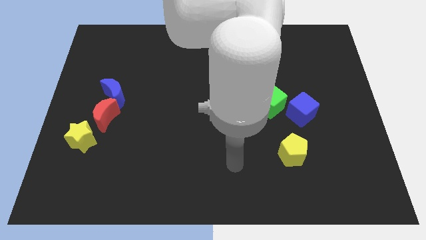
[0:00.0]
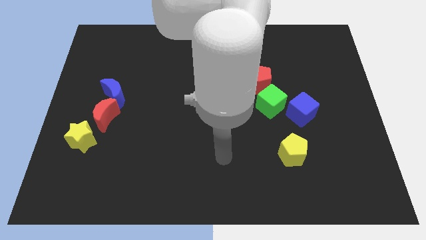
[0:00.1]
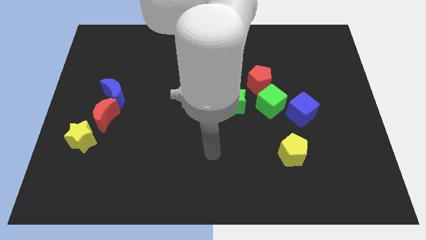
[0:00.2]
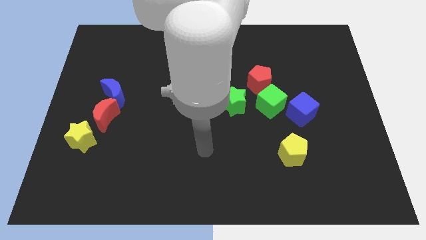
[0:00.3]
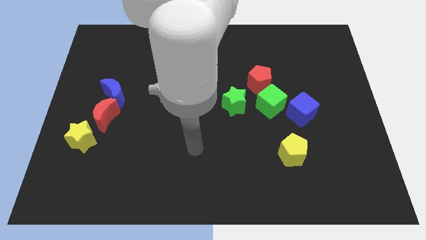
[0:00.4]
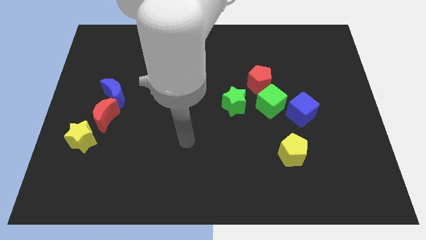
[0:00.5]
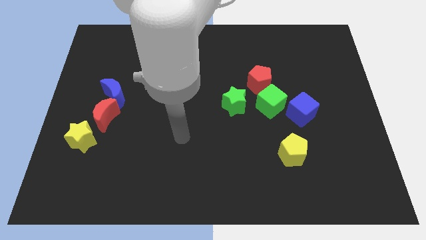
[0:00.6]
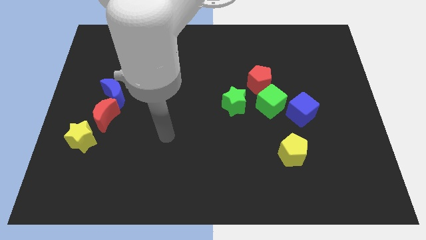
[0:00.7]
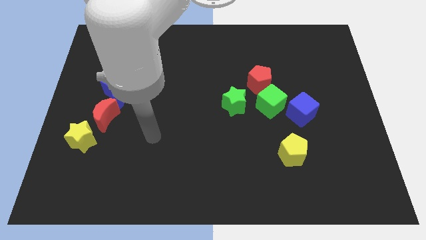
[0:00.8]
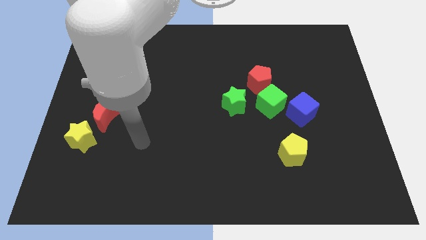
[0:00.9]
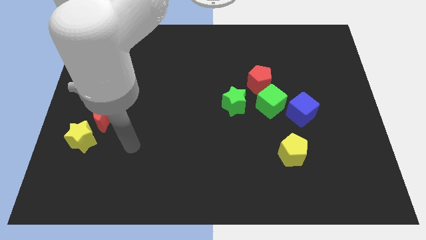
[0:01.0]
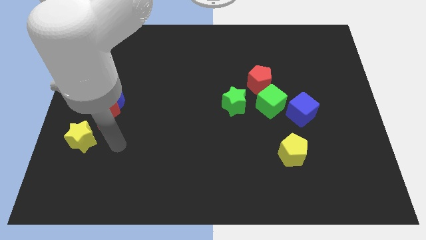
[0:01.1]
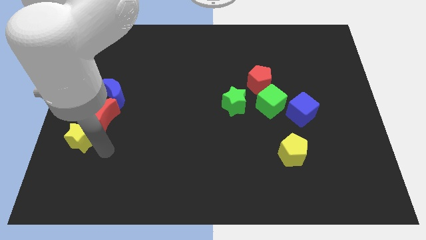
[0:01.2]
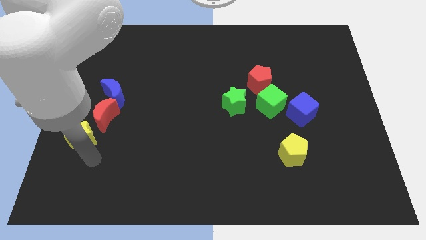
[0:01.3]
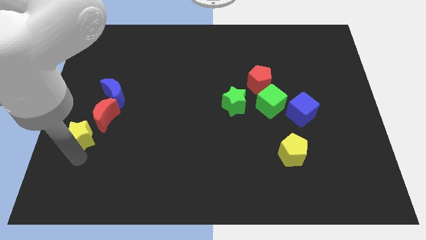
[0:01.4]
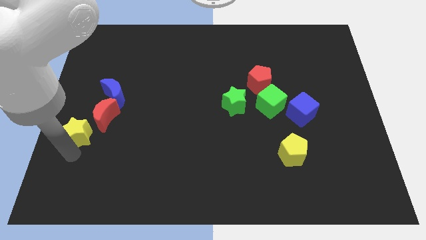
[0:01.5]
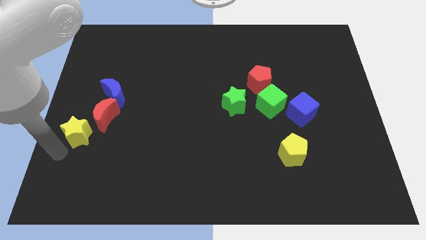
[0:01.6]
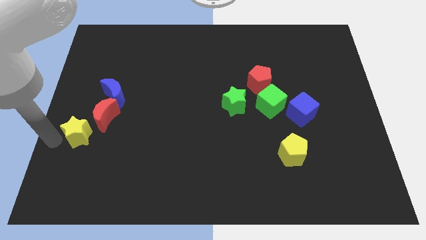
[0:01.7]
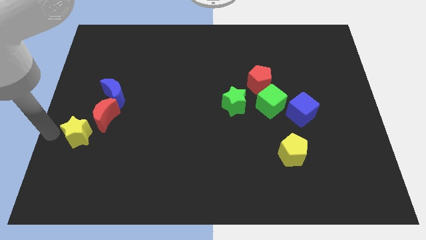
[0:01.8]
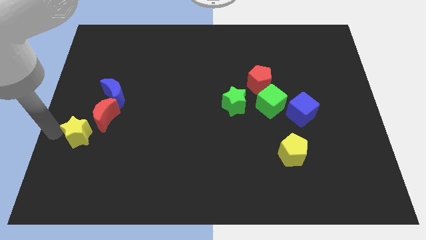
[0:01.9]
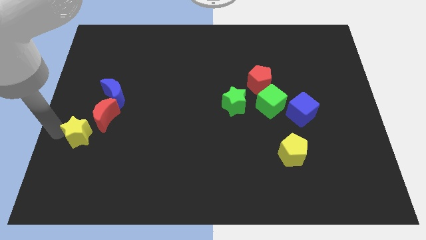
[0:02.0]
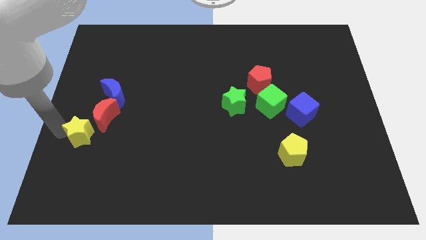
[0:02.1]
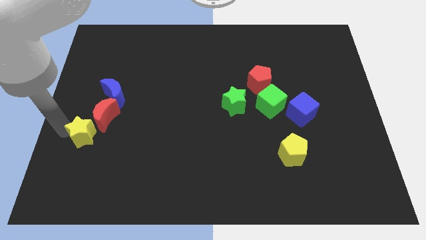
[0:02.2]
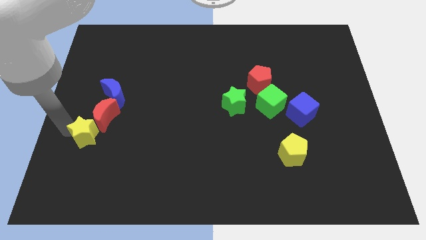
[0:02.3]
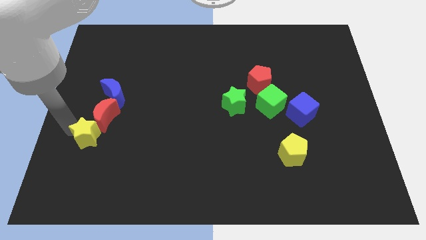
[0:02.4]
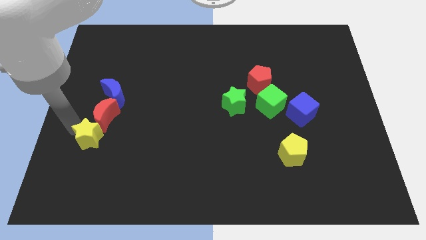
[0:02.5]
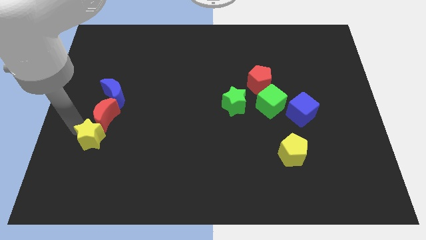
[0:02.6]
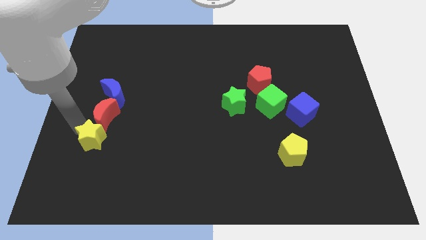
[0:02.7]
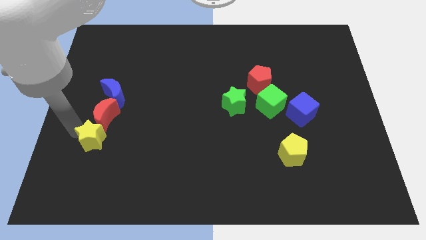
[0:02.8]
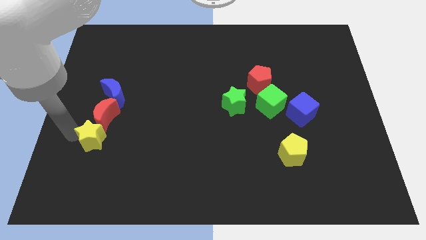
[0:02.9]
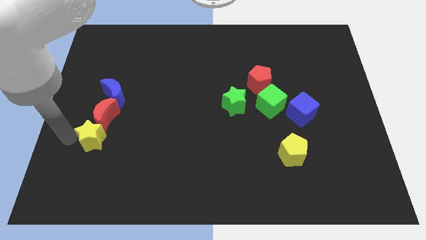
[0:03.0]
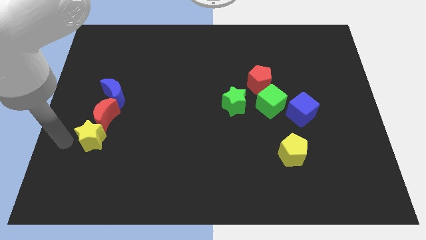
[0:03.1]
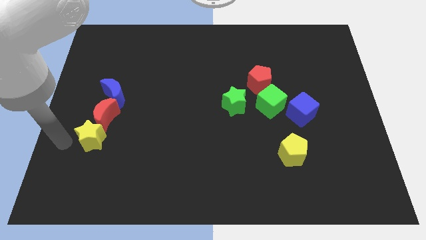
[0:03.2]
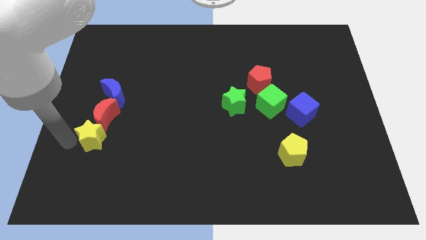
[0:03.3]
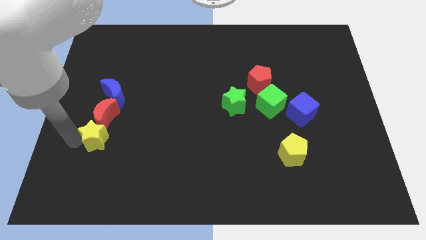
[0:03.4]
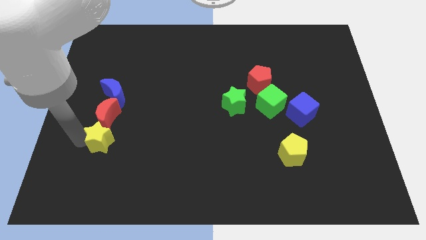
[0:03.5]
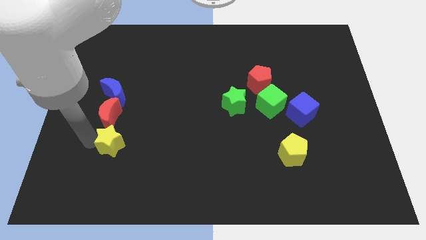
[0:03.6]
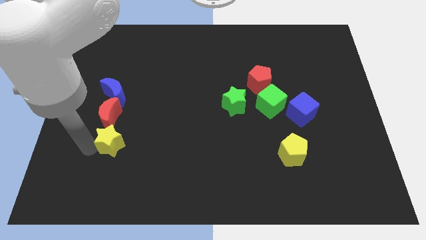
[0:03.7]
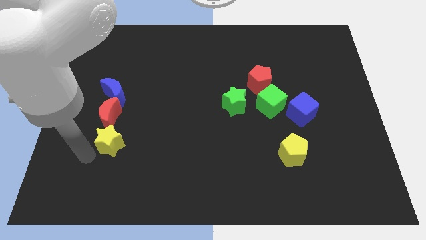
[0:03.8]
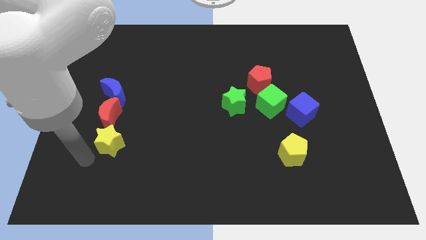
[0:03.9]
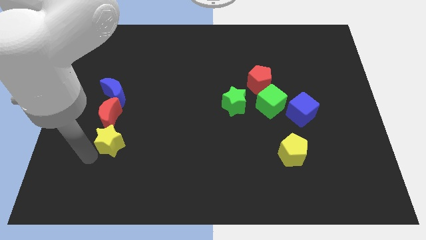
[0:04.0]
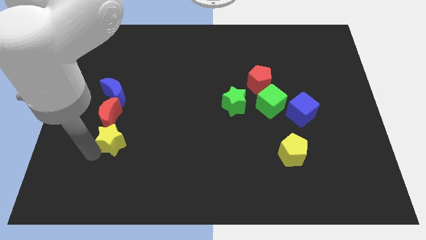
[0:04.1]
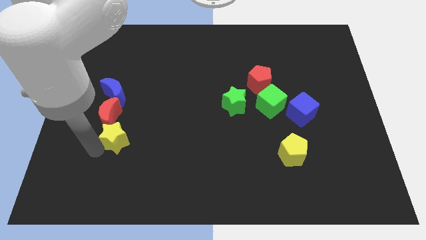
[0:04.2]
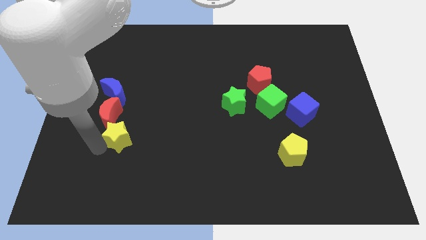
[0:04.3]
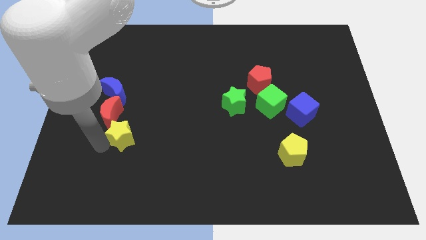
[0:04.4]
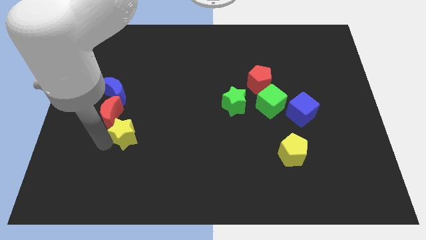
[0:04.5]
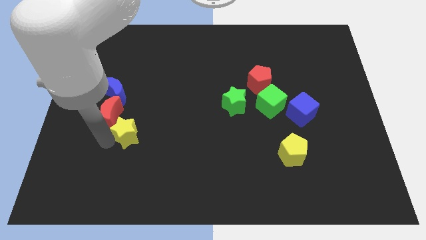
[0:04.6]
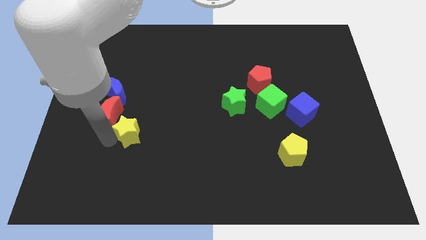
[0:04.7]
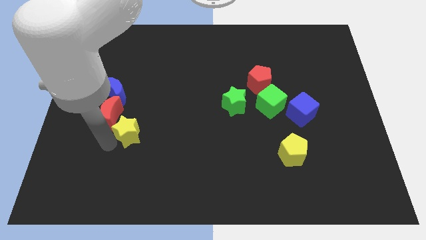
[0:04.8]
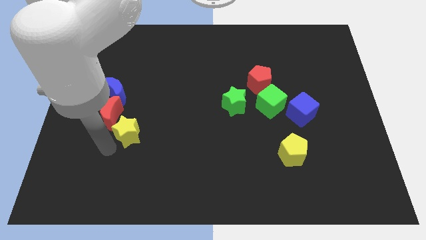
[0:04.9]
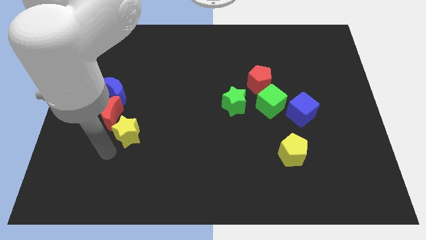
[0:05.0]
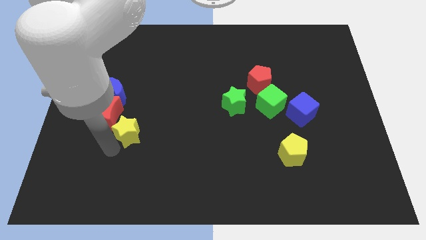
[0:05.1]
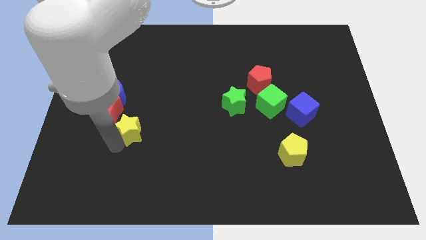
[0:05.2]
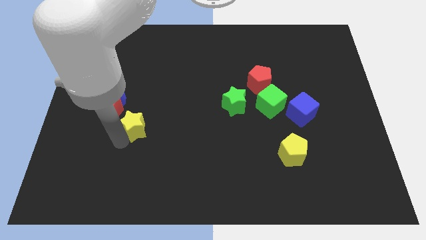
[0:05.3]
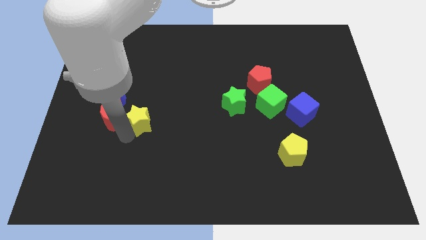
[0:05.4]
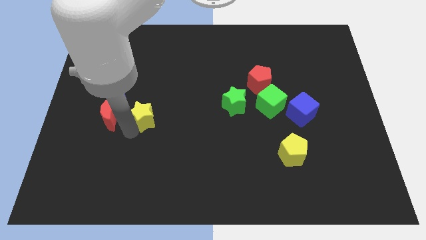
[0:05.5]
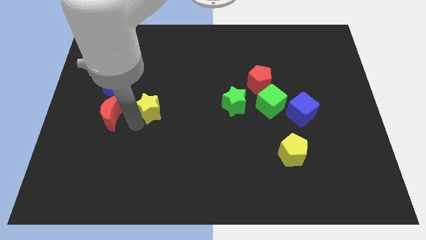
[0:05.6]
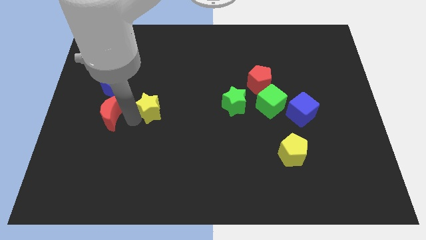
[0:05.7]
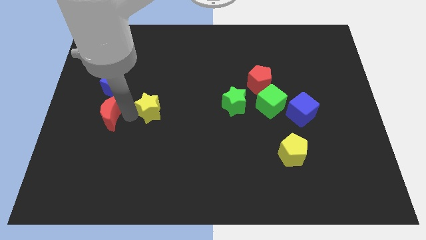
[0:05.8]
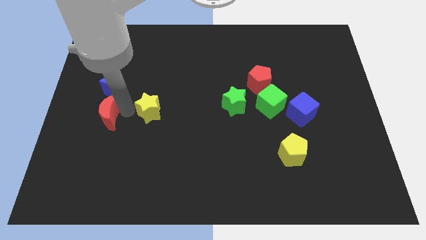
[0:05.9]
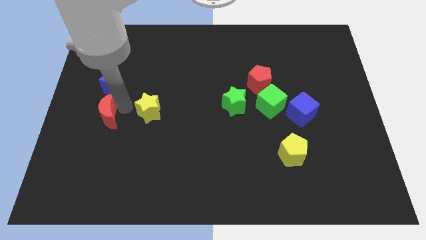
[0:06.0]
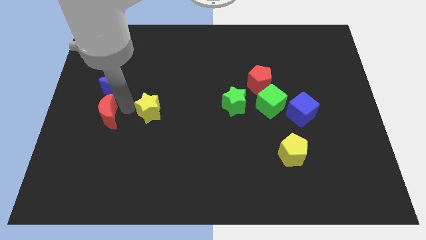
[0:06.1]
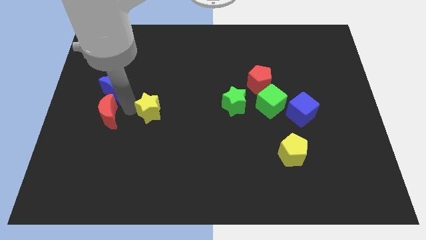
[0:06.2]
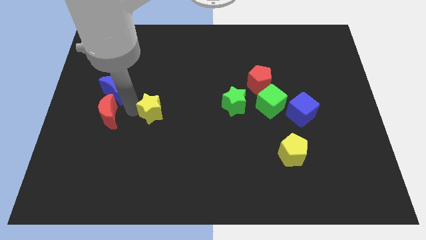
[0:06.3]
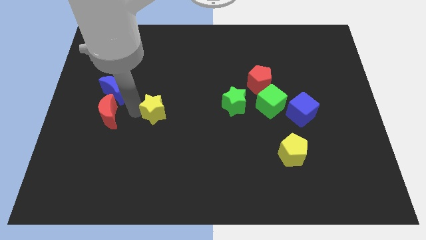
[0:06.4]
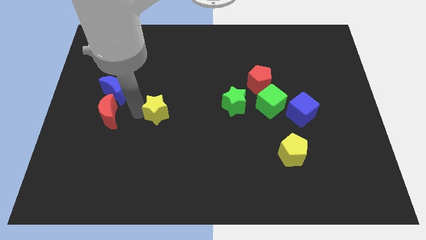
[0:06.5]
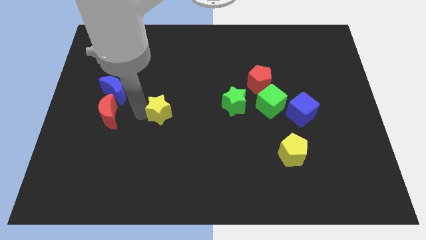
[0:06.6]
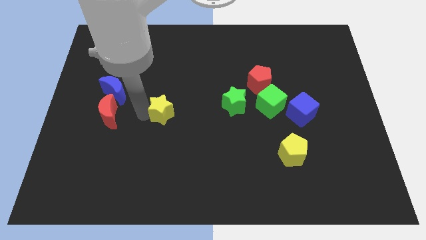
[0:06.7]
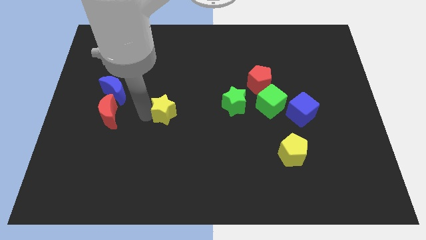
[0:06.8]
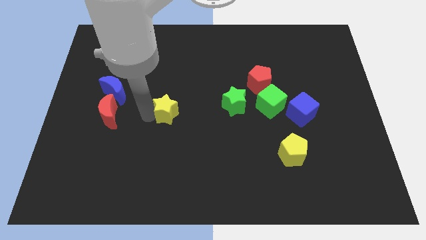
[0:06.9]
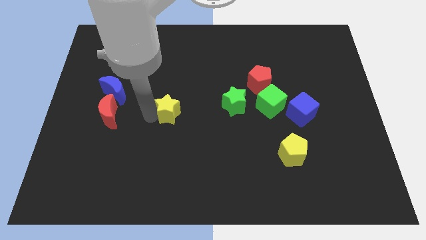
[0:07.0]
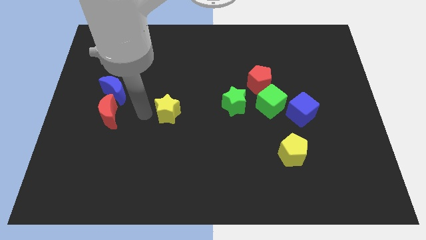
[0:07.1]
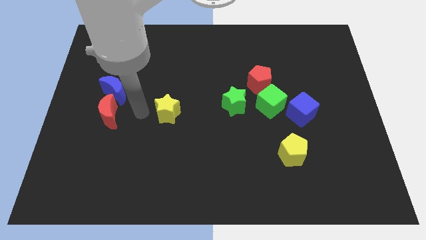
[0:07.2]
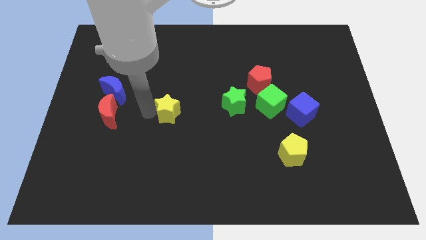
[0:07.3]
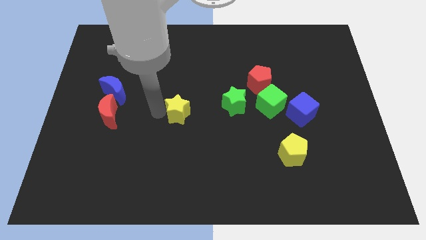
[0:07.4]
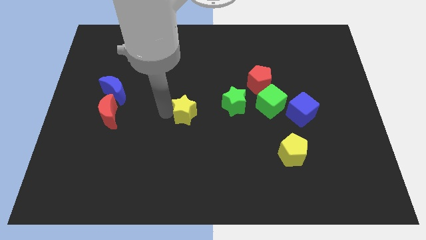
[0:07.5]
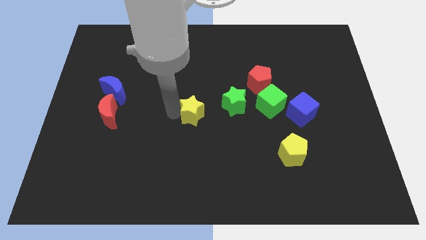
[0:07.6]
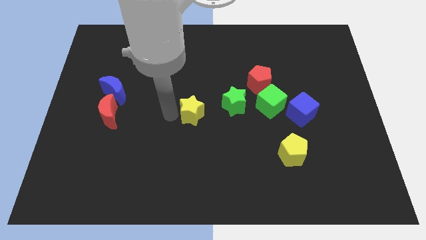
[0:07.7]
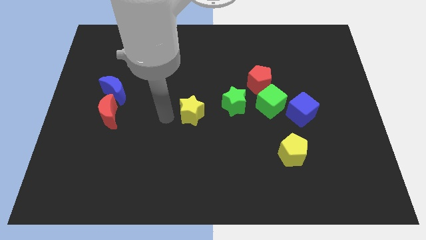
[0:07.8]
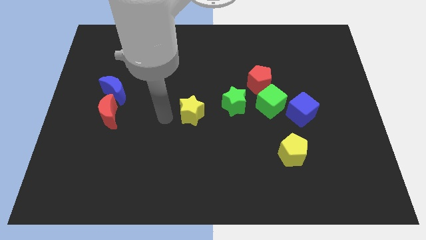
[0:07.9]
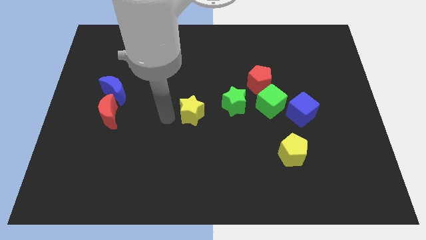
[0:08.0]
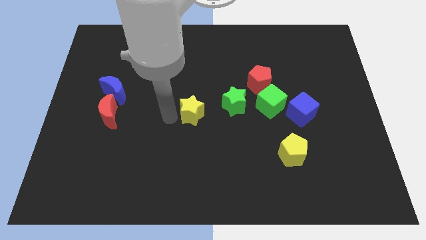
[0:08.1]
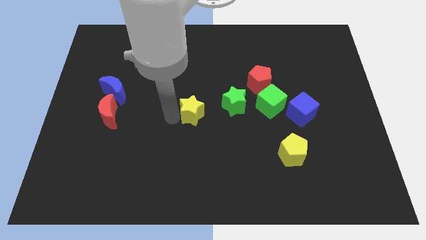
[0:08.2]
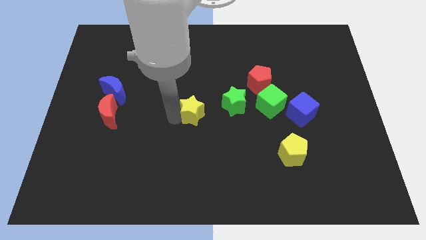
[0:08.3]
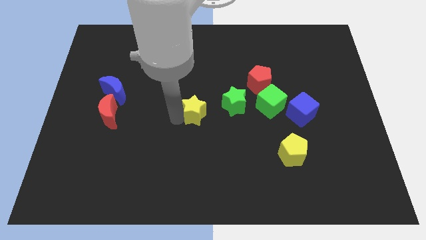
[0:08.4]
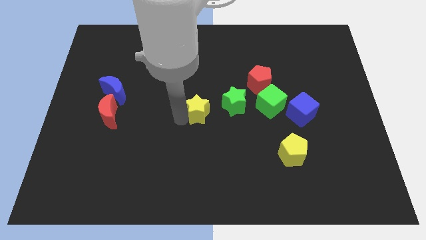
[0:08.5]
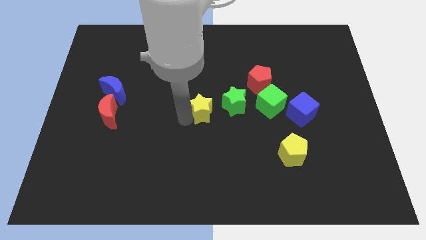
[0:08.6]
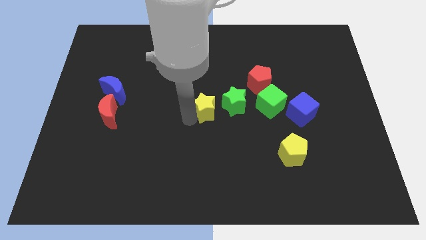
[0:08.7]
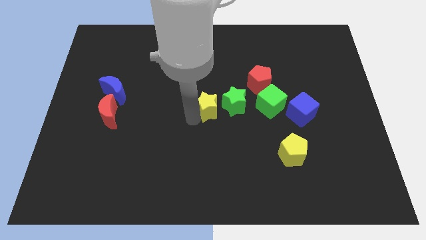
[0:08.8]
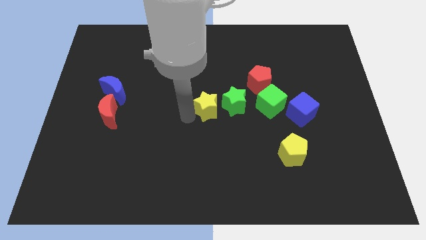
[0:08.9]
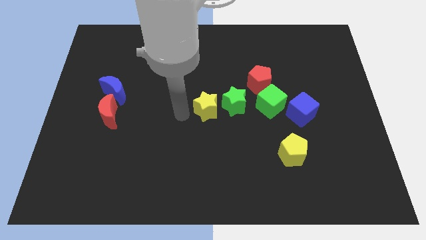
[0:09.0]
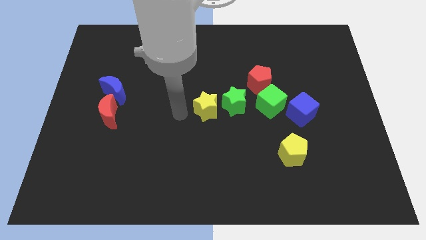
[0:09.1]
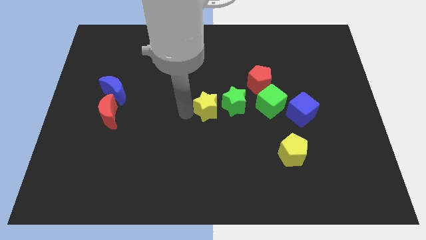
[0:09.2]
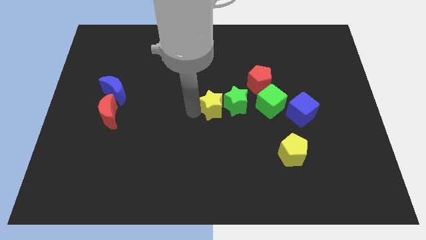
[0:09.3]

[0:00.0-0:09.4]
push the yellow star towards the green star
